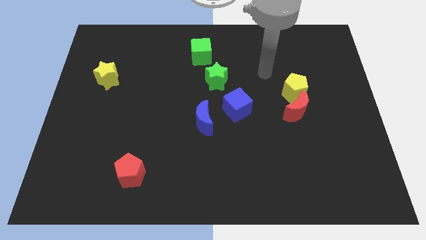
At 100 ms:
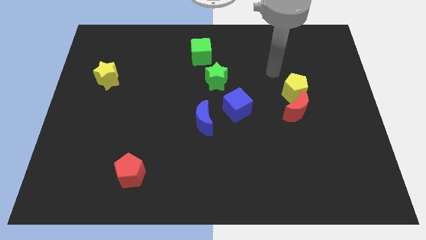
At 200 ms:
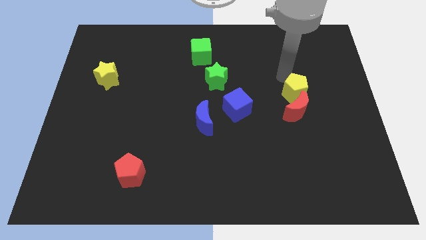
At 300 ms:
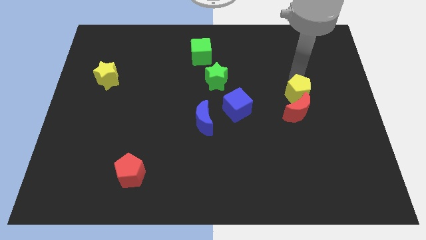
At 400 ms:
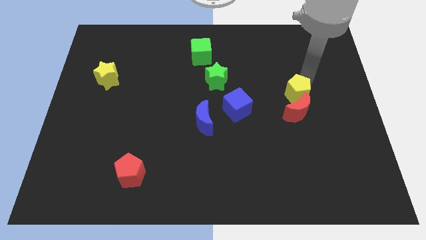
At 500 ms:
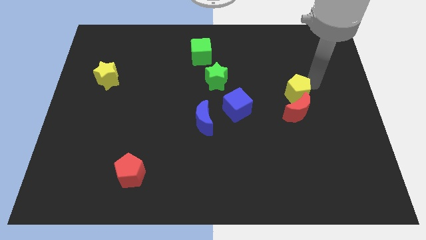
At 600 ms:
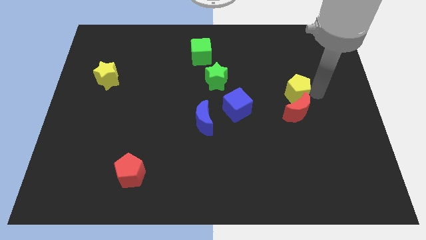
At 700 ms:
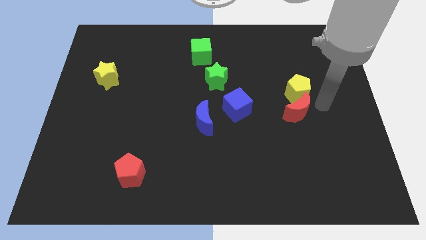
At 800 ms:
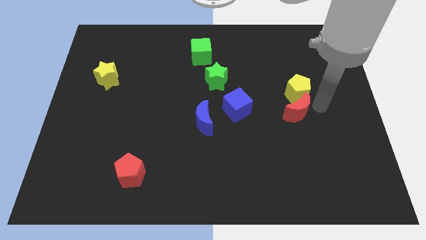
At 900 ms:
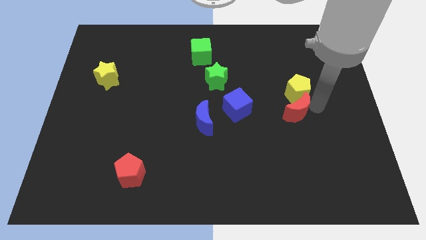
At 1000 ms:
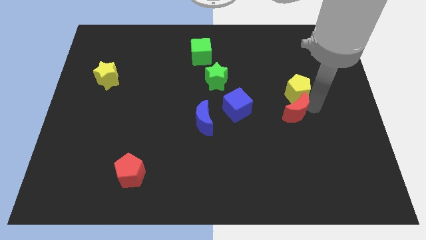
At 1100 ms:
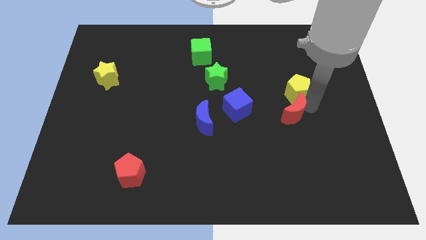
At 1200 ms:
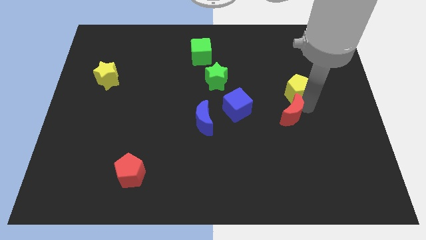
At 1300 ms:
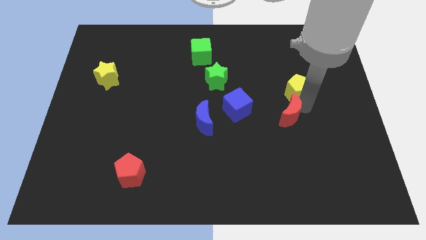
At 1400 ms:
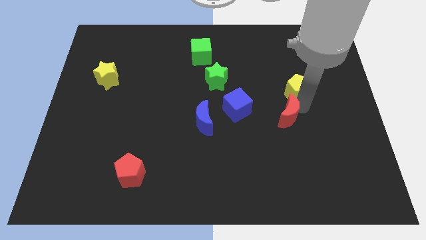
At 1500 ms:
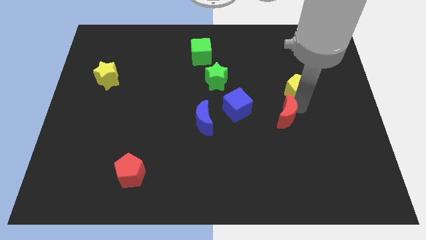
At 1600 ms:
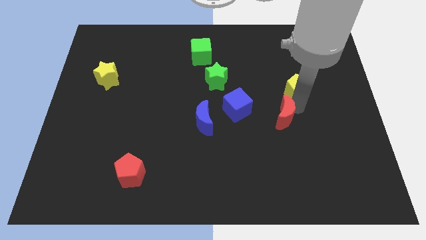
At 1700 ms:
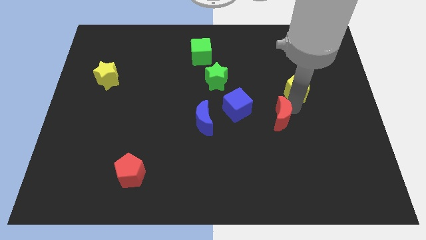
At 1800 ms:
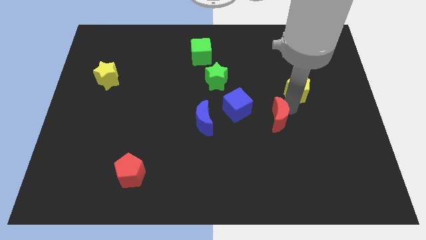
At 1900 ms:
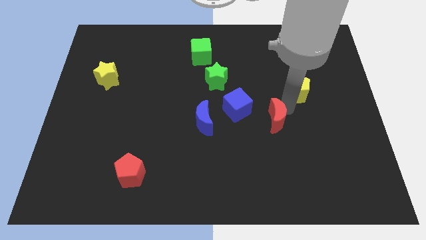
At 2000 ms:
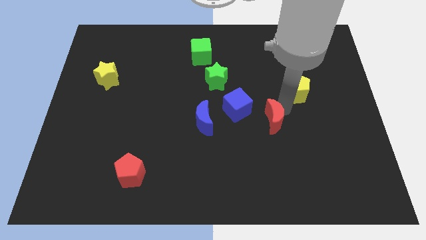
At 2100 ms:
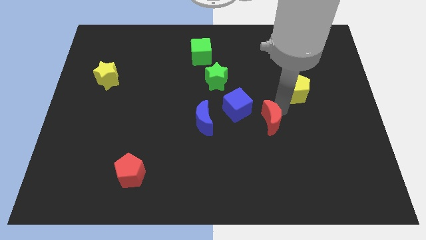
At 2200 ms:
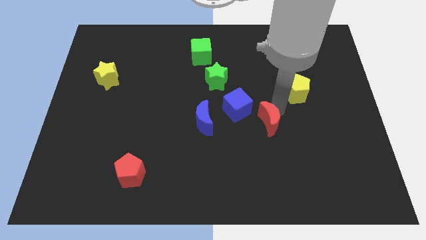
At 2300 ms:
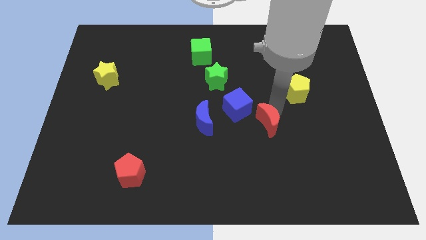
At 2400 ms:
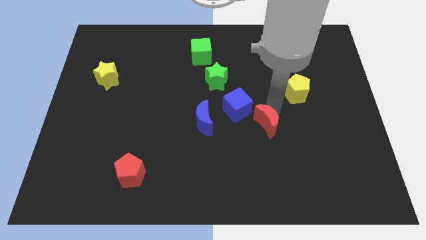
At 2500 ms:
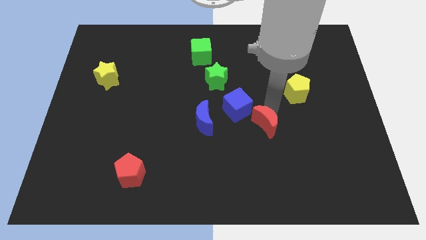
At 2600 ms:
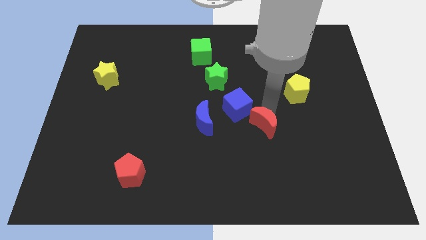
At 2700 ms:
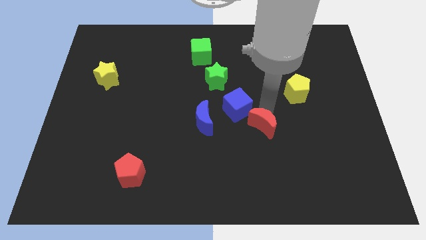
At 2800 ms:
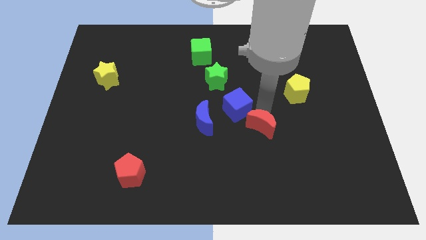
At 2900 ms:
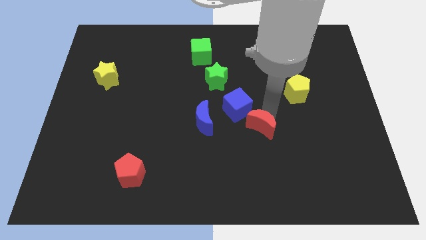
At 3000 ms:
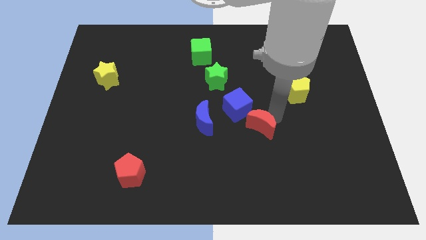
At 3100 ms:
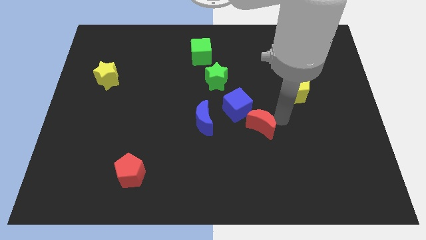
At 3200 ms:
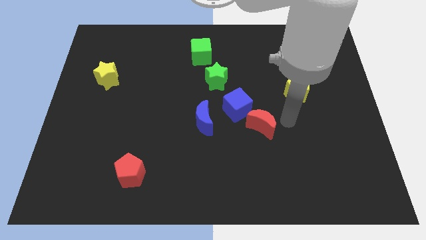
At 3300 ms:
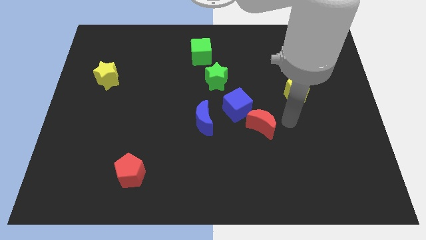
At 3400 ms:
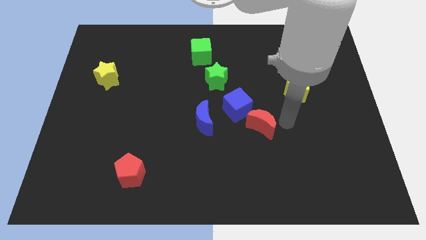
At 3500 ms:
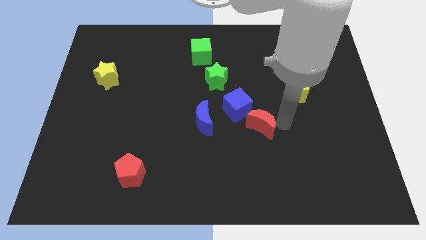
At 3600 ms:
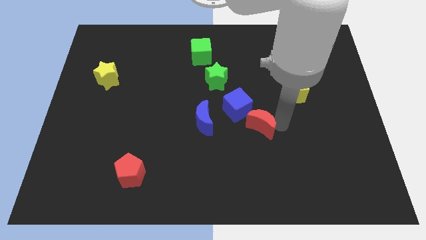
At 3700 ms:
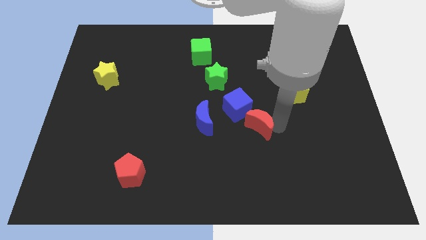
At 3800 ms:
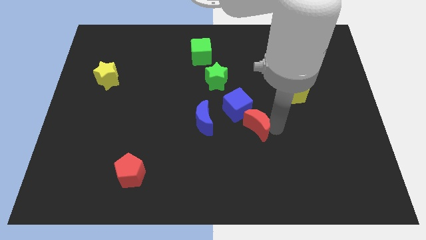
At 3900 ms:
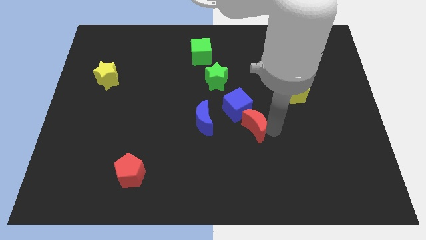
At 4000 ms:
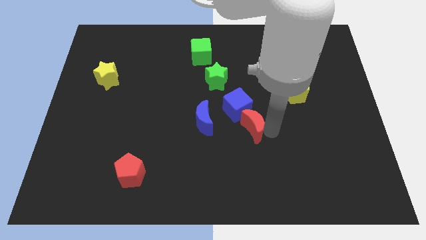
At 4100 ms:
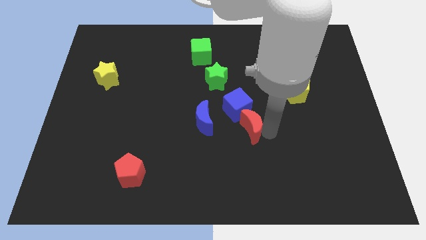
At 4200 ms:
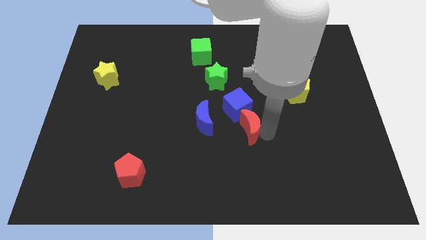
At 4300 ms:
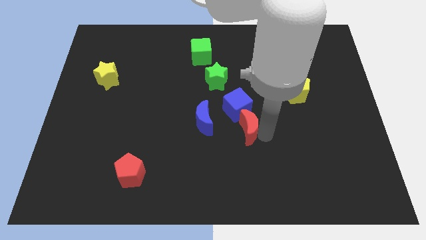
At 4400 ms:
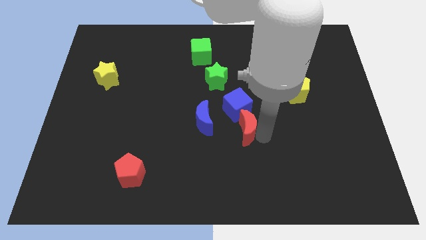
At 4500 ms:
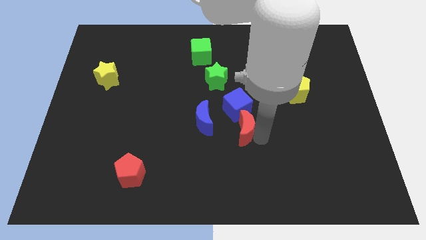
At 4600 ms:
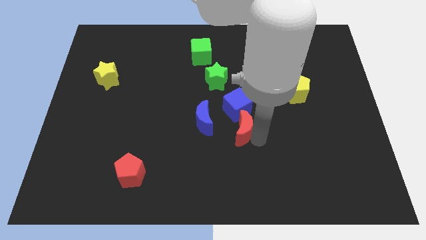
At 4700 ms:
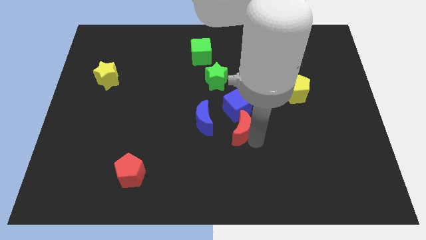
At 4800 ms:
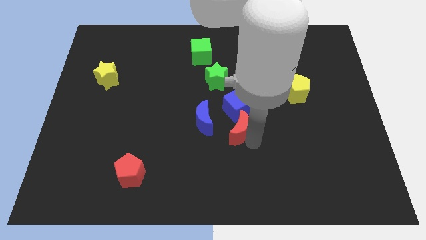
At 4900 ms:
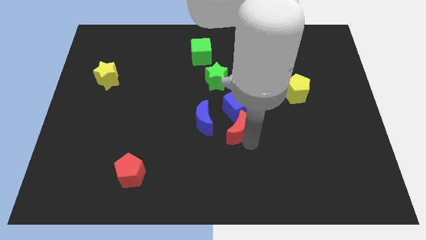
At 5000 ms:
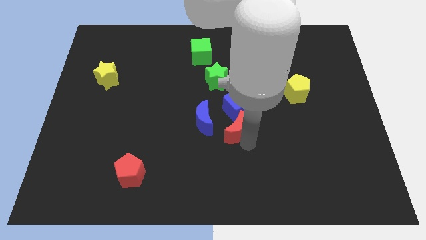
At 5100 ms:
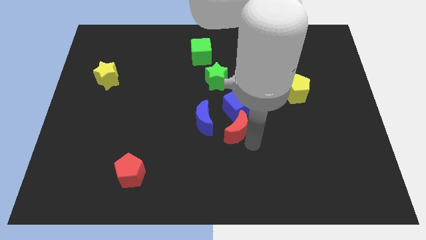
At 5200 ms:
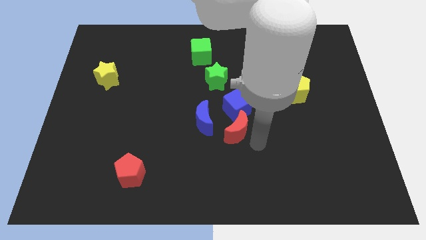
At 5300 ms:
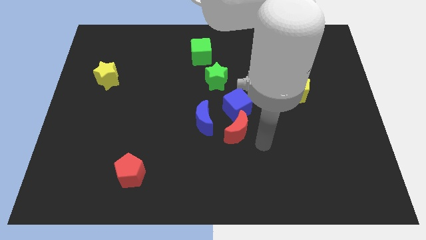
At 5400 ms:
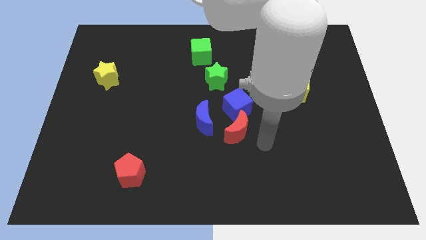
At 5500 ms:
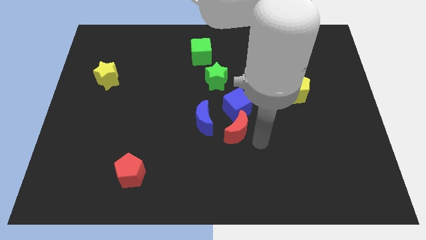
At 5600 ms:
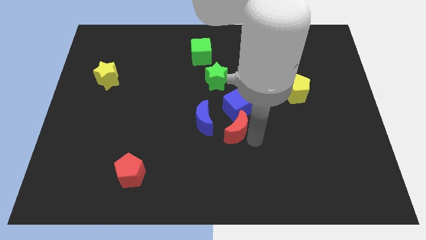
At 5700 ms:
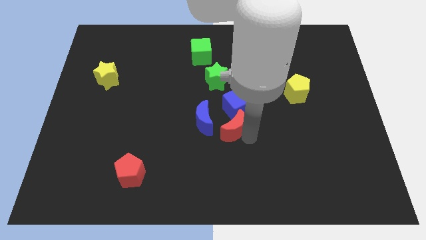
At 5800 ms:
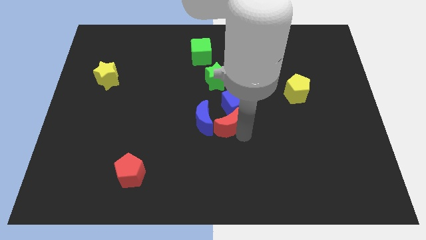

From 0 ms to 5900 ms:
move the red moon next to the blue moon

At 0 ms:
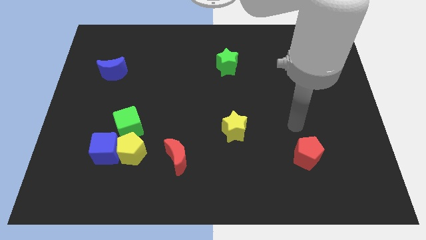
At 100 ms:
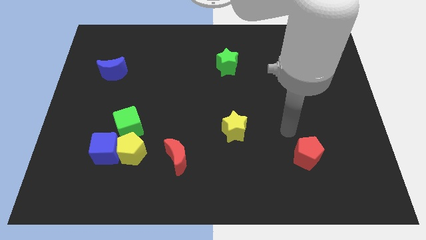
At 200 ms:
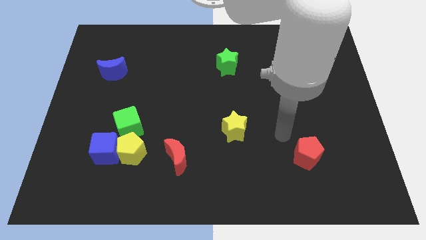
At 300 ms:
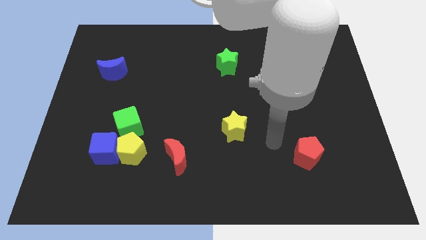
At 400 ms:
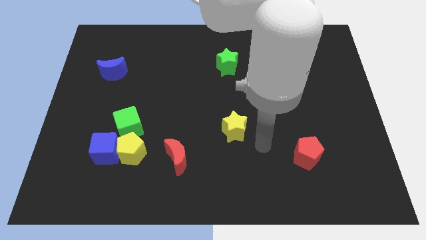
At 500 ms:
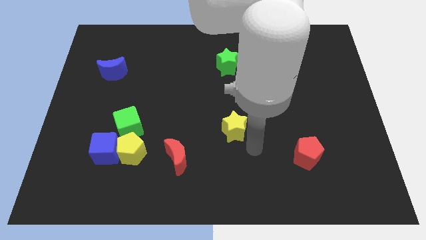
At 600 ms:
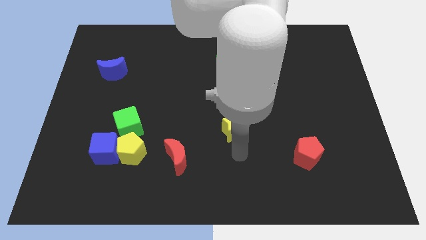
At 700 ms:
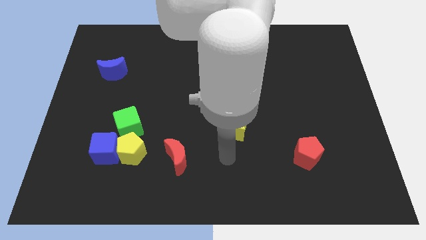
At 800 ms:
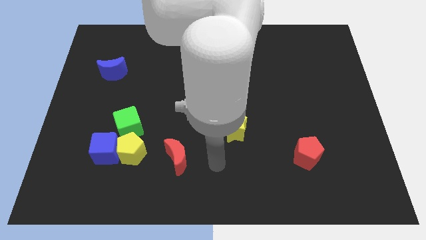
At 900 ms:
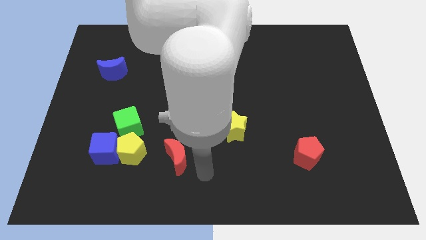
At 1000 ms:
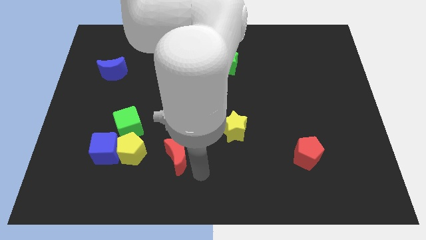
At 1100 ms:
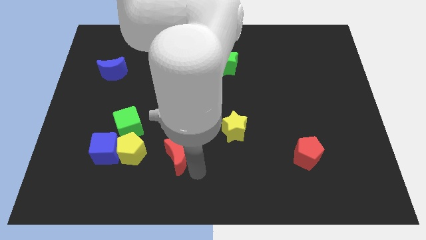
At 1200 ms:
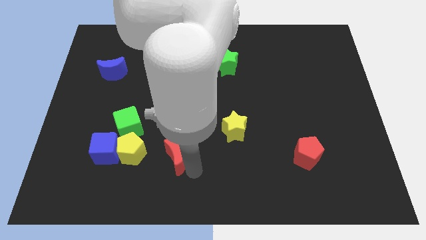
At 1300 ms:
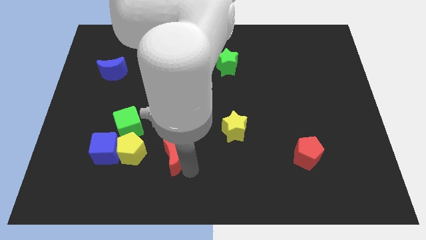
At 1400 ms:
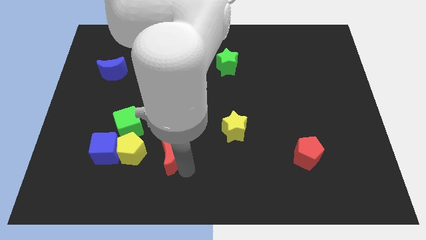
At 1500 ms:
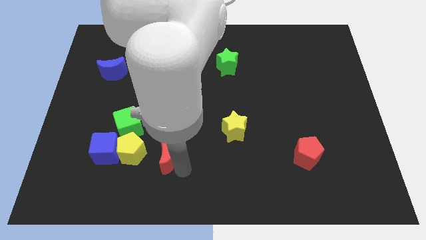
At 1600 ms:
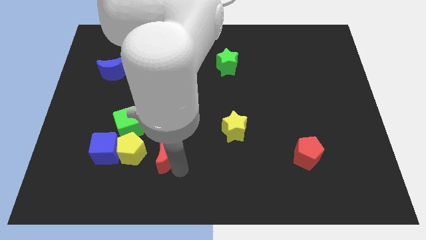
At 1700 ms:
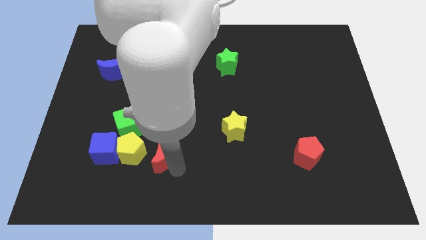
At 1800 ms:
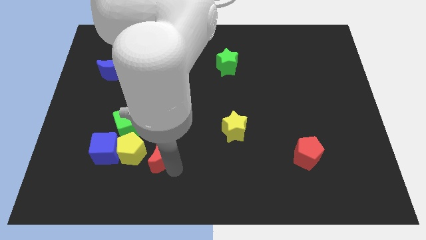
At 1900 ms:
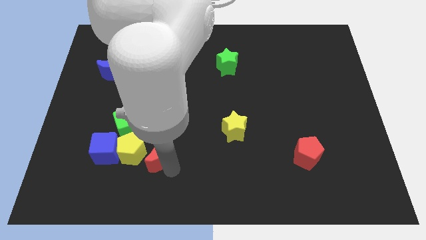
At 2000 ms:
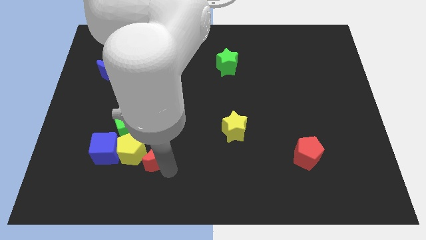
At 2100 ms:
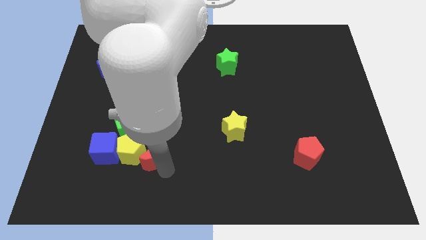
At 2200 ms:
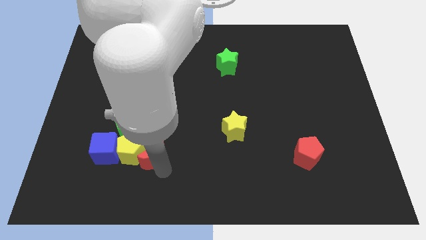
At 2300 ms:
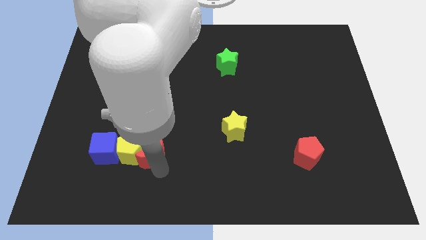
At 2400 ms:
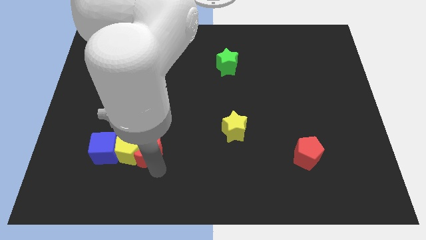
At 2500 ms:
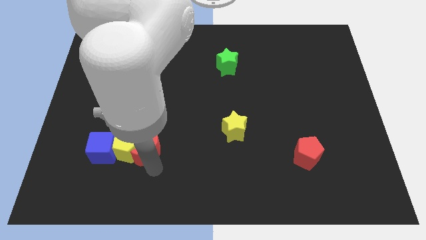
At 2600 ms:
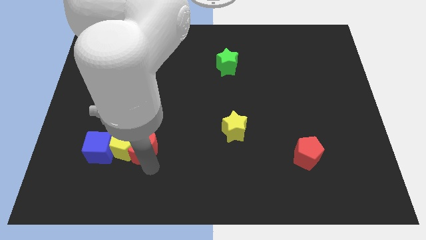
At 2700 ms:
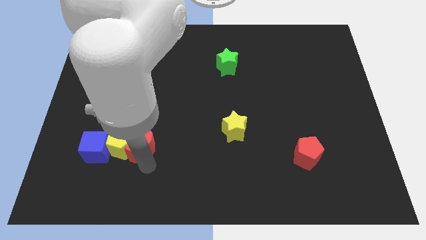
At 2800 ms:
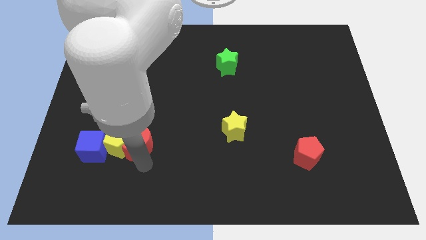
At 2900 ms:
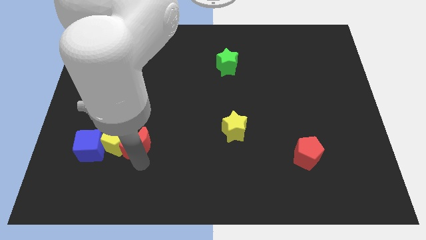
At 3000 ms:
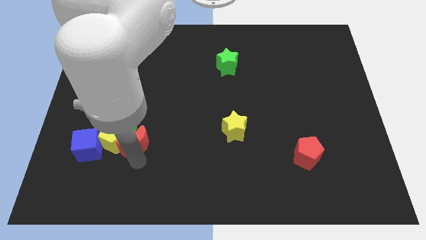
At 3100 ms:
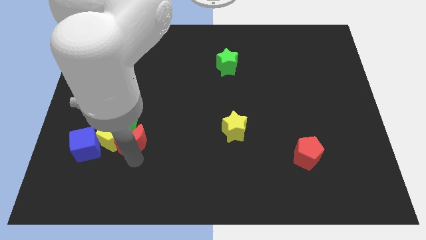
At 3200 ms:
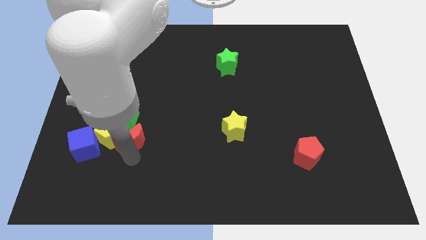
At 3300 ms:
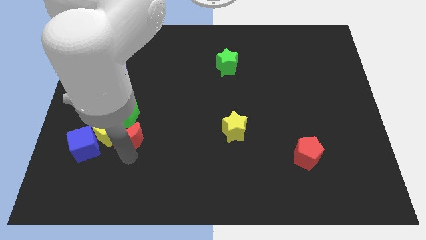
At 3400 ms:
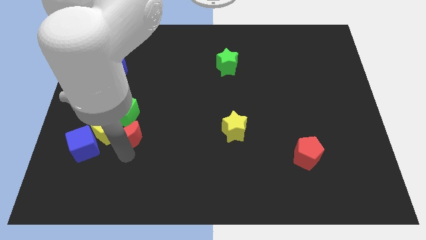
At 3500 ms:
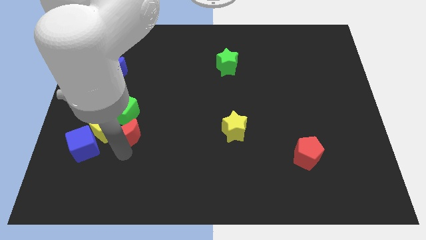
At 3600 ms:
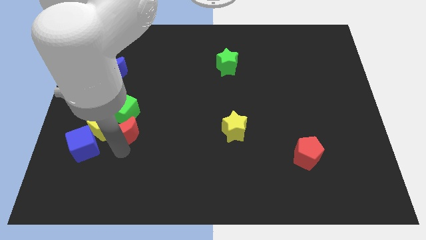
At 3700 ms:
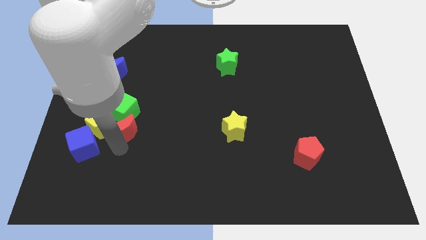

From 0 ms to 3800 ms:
push the red moon next to the green cube
